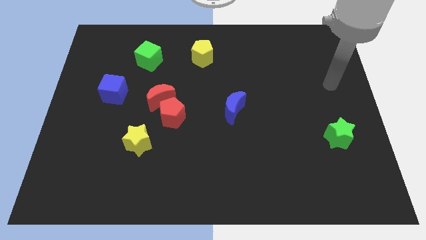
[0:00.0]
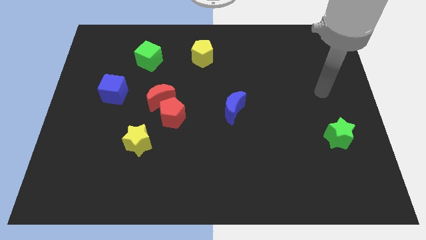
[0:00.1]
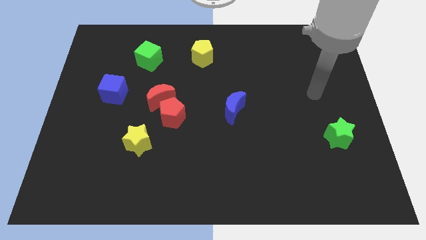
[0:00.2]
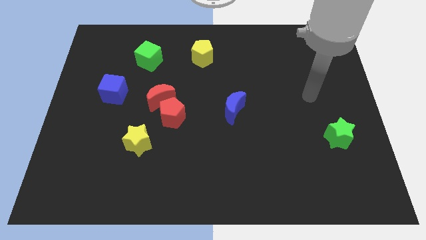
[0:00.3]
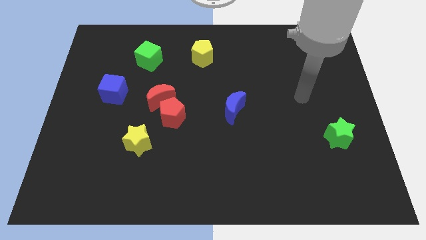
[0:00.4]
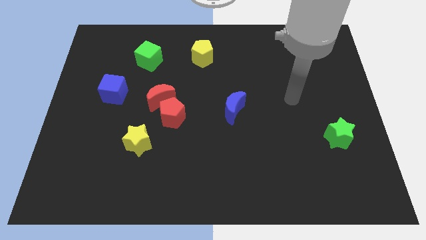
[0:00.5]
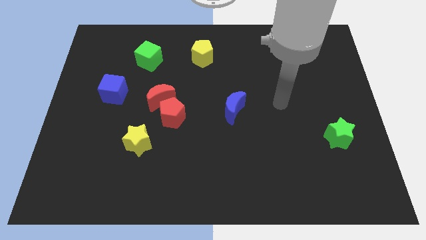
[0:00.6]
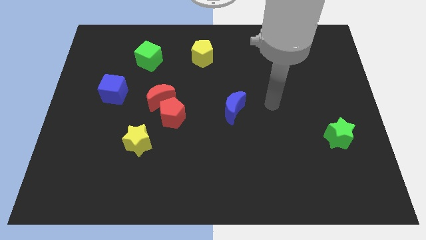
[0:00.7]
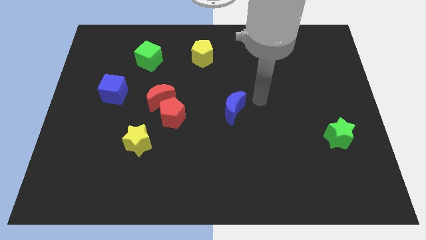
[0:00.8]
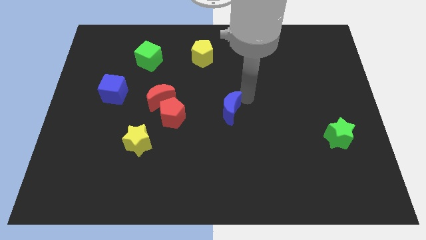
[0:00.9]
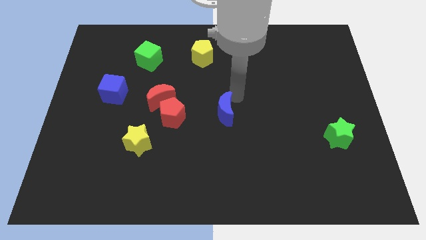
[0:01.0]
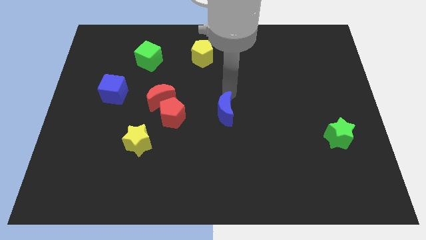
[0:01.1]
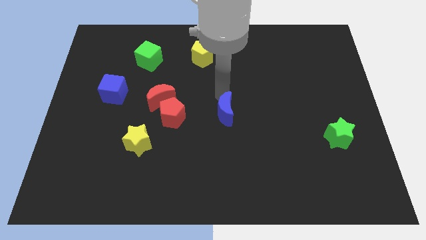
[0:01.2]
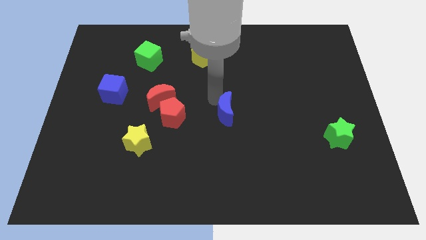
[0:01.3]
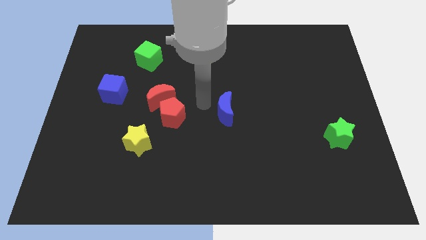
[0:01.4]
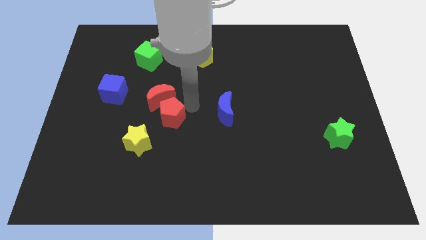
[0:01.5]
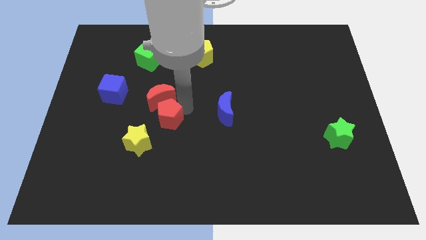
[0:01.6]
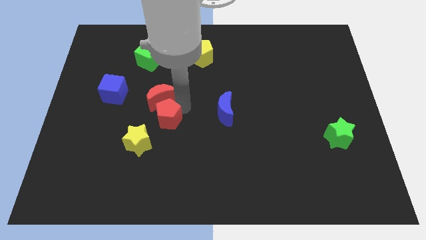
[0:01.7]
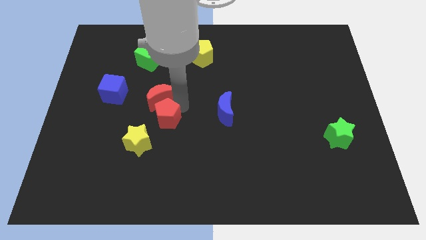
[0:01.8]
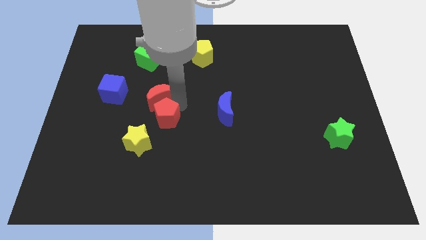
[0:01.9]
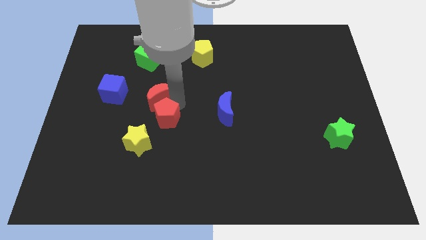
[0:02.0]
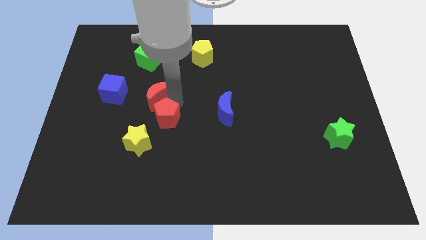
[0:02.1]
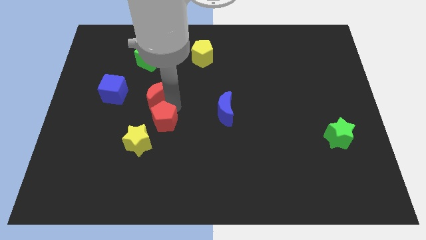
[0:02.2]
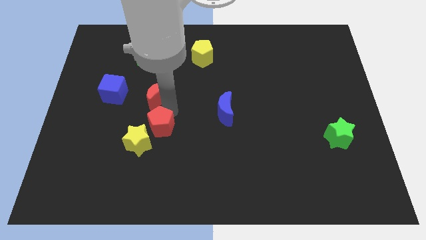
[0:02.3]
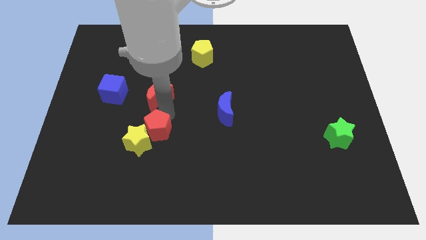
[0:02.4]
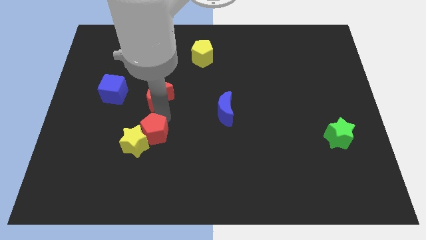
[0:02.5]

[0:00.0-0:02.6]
separate the red moon from the red pentagon

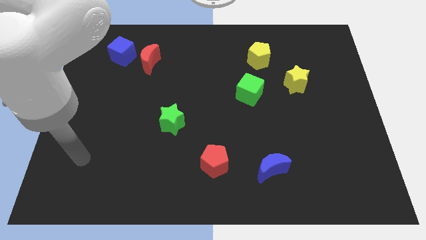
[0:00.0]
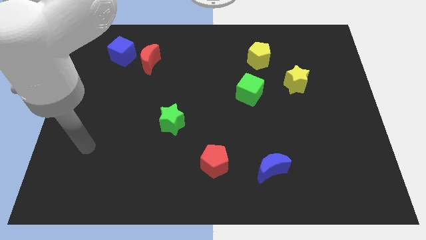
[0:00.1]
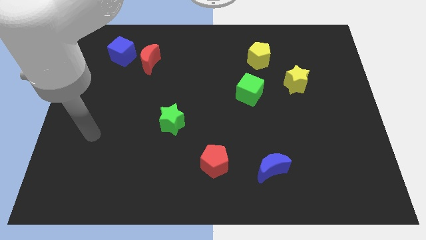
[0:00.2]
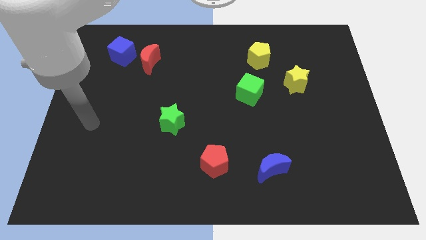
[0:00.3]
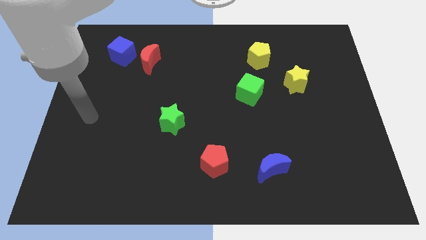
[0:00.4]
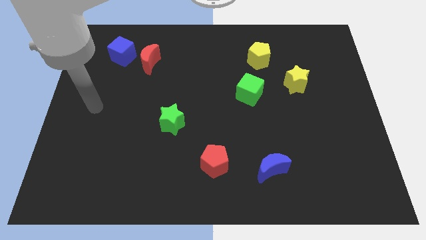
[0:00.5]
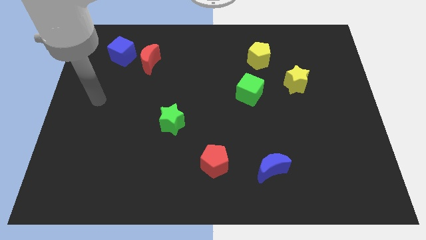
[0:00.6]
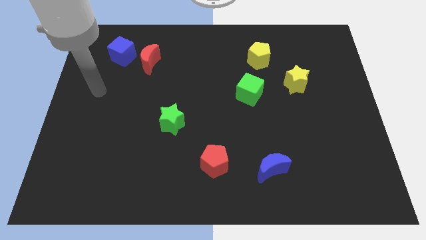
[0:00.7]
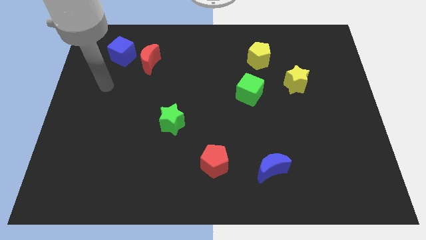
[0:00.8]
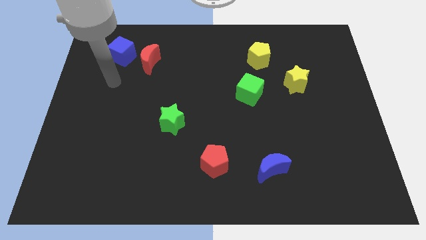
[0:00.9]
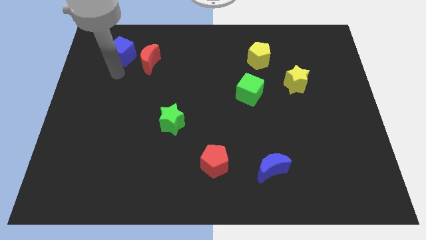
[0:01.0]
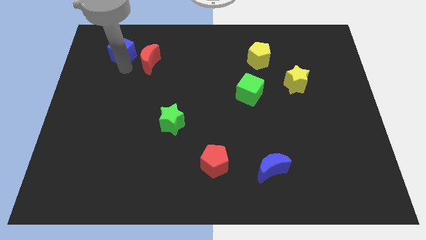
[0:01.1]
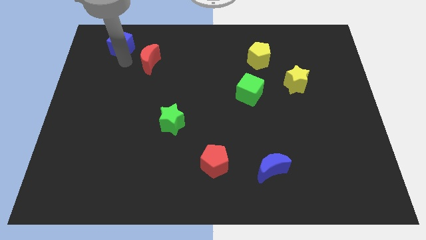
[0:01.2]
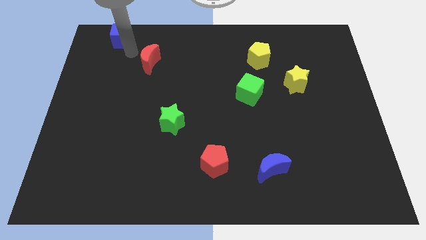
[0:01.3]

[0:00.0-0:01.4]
separate the red moon from the blue cube

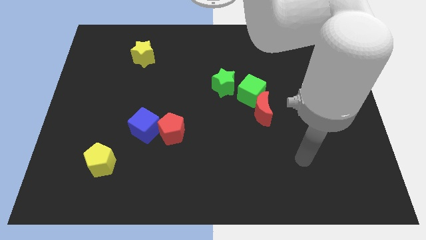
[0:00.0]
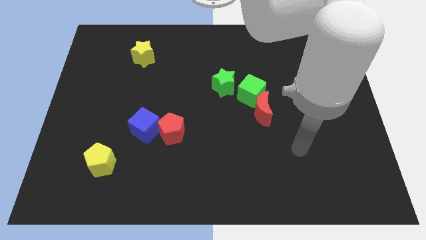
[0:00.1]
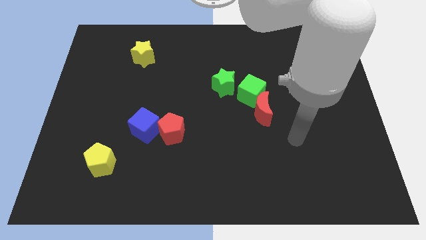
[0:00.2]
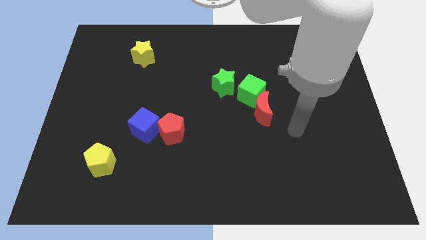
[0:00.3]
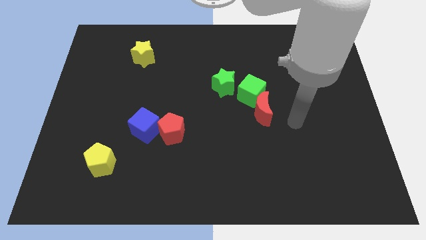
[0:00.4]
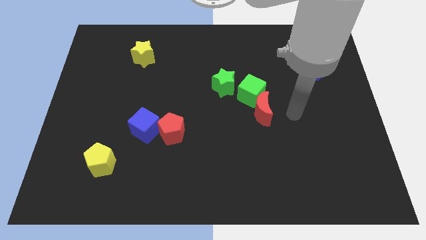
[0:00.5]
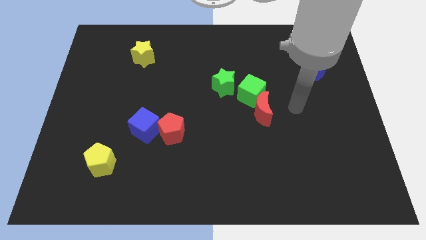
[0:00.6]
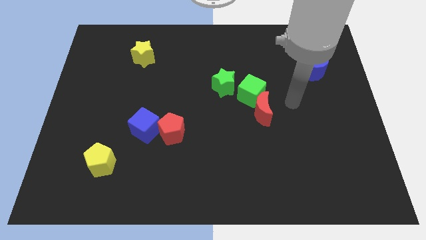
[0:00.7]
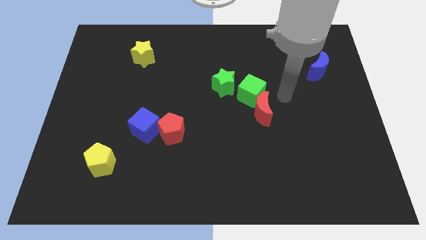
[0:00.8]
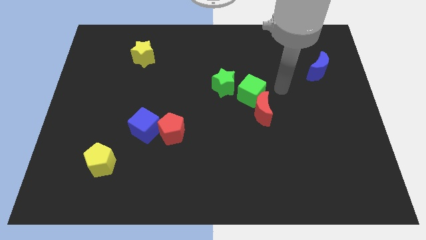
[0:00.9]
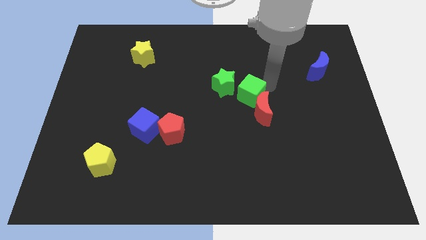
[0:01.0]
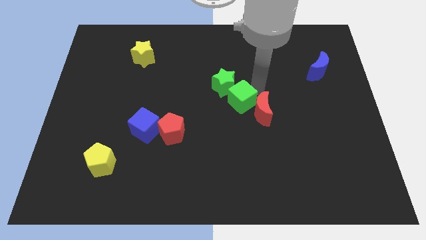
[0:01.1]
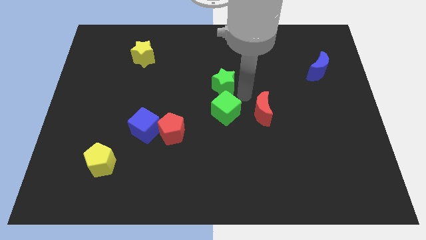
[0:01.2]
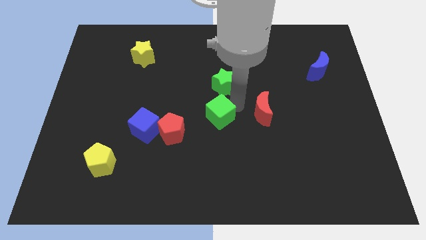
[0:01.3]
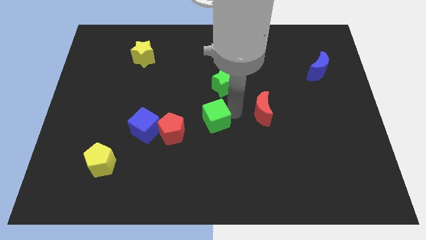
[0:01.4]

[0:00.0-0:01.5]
pull the red moon apart from the green cube

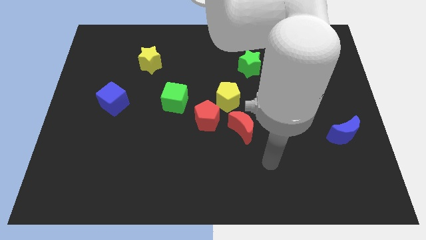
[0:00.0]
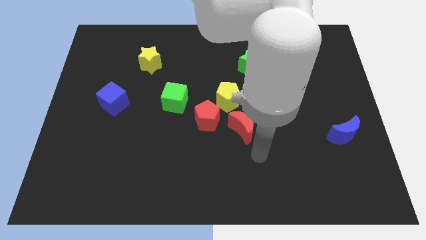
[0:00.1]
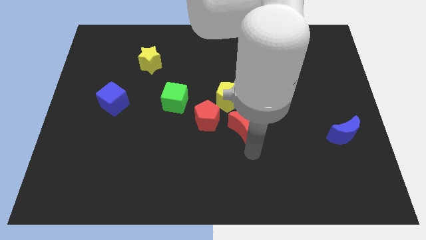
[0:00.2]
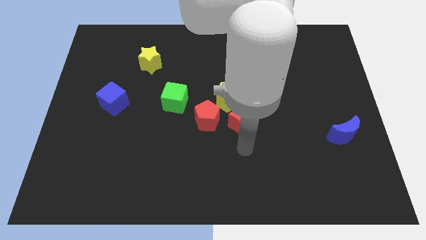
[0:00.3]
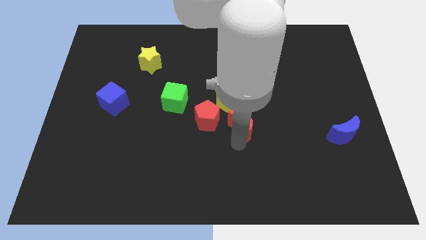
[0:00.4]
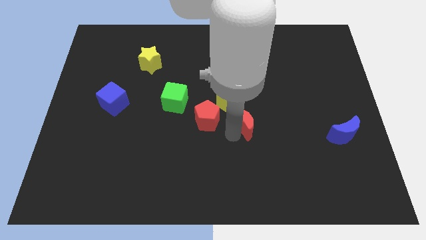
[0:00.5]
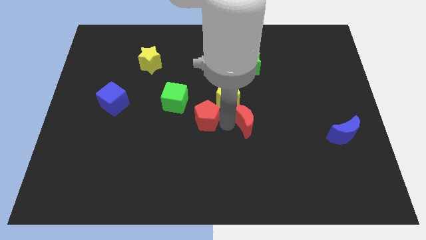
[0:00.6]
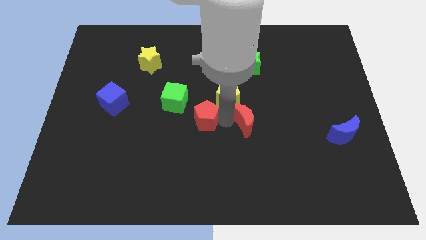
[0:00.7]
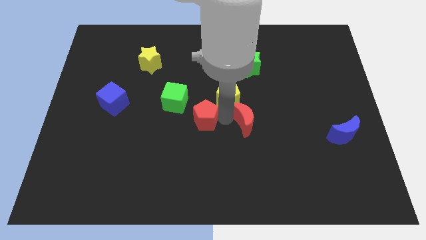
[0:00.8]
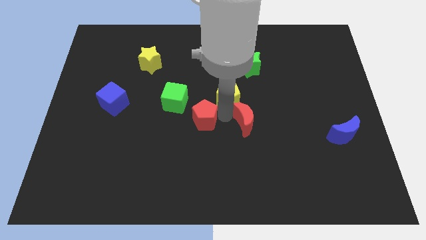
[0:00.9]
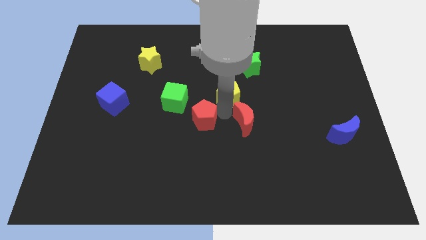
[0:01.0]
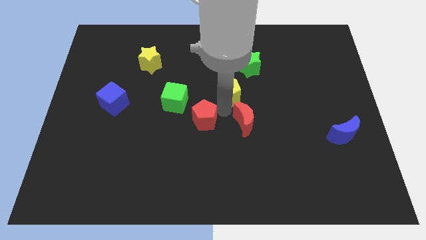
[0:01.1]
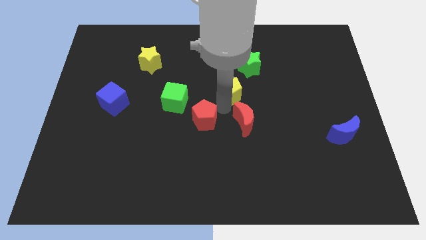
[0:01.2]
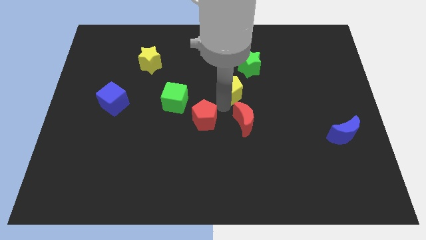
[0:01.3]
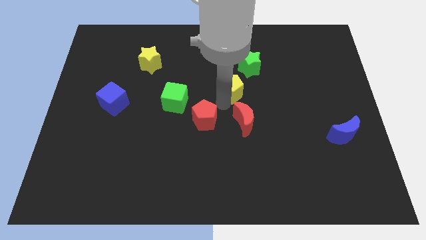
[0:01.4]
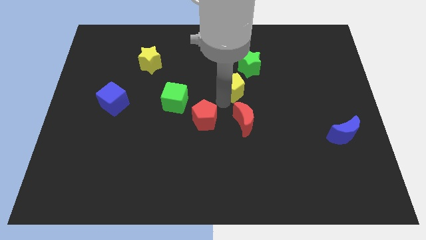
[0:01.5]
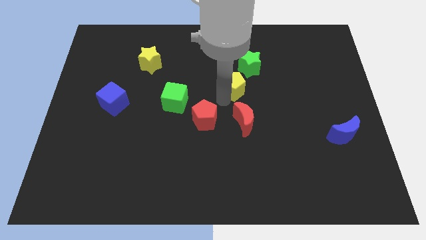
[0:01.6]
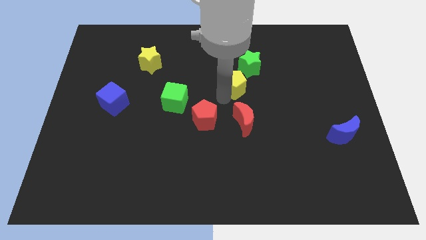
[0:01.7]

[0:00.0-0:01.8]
separate the yellow pentagon from the red pentagon and red moon

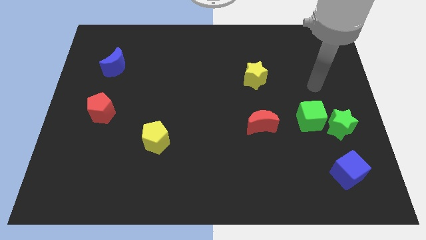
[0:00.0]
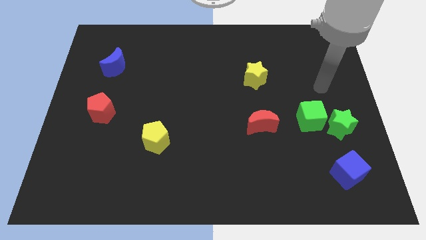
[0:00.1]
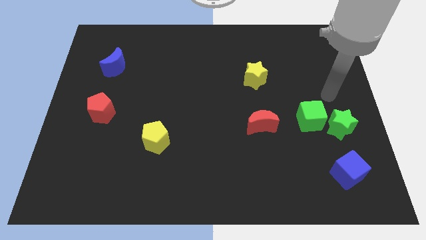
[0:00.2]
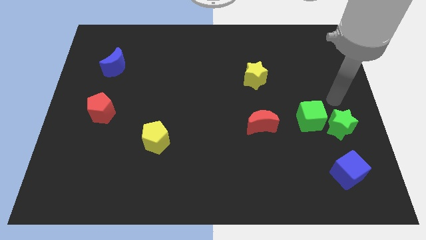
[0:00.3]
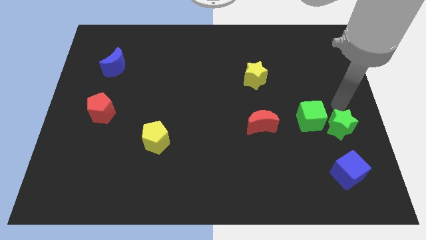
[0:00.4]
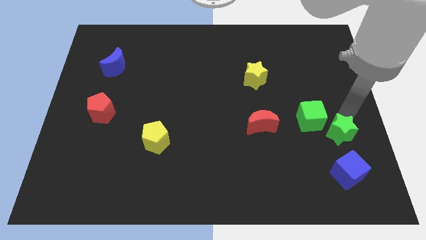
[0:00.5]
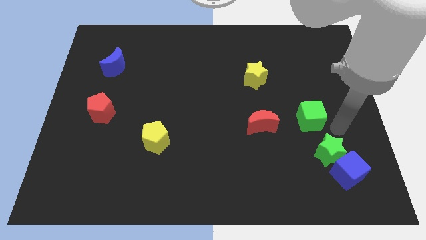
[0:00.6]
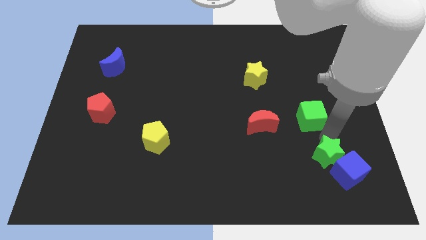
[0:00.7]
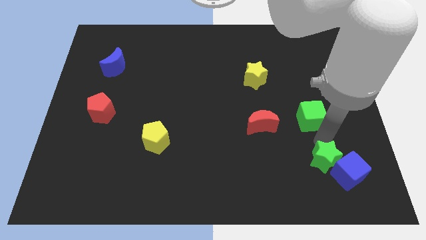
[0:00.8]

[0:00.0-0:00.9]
separate the green cube from the green star

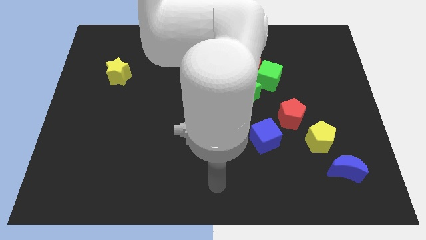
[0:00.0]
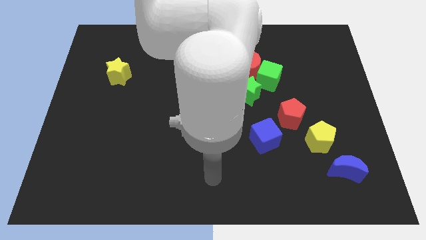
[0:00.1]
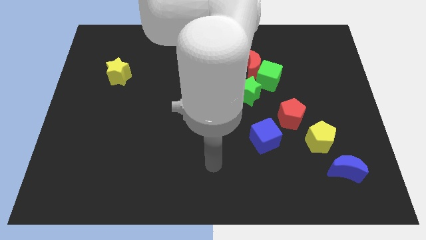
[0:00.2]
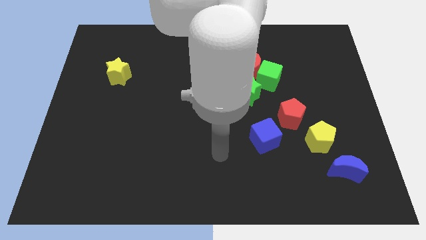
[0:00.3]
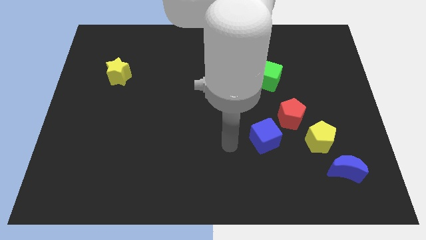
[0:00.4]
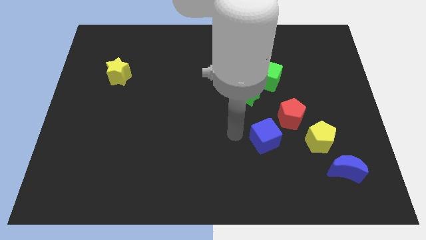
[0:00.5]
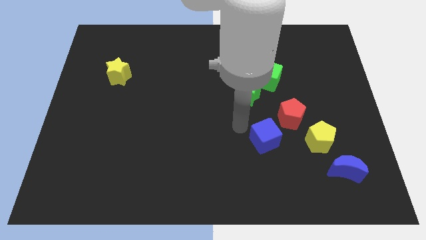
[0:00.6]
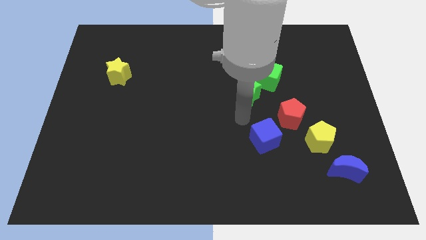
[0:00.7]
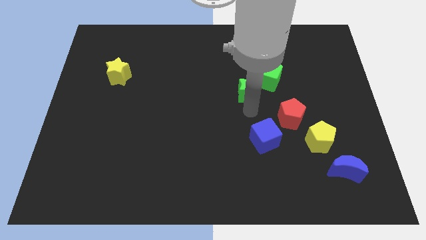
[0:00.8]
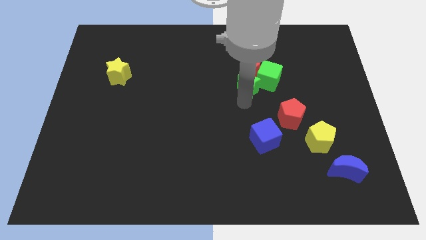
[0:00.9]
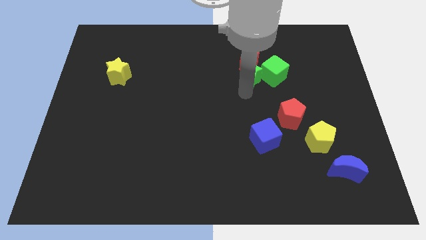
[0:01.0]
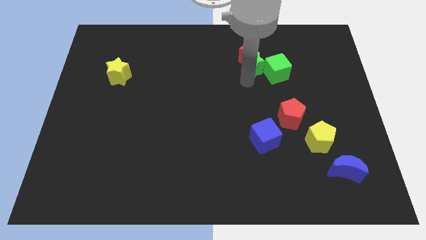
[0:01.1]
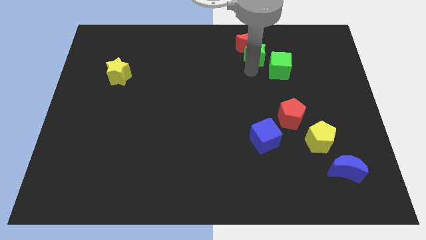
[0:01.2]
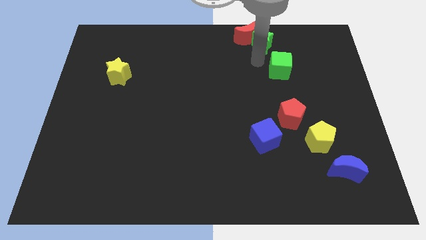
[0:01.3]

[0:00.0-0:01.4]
move the green cube away from the red moon and green star
